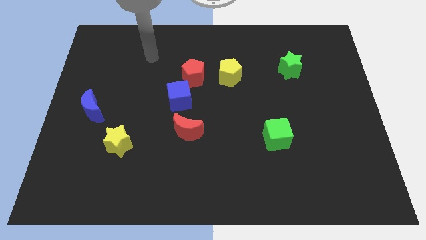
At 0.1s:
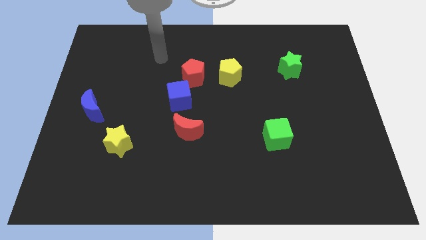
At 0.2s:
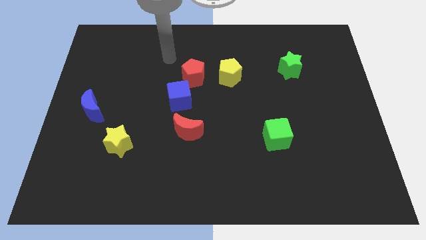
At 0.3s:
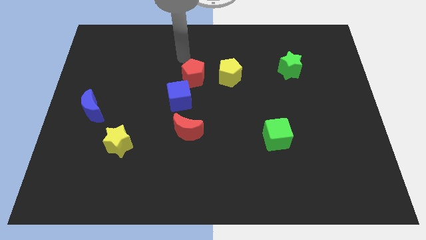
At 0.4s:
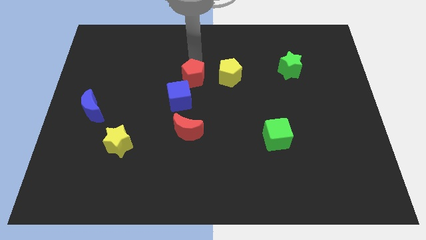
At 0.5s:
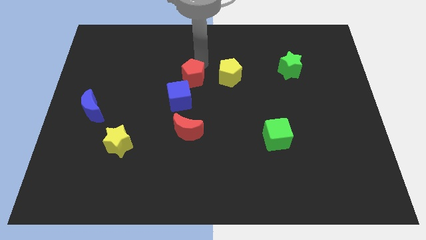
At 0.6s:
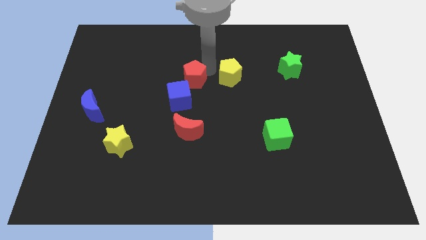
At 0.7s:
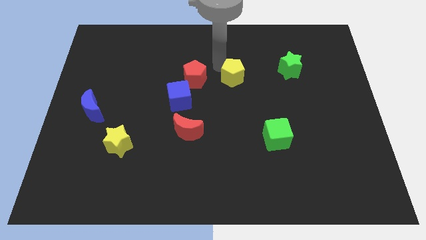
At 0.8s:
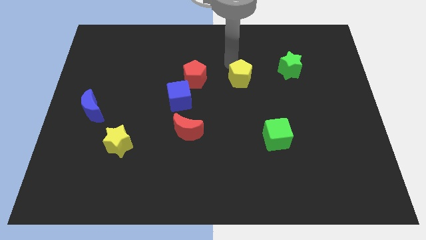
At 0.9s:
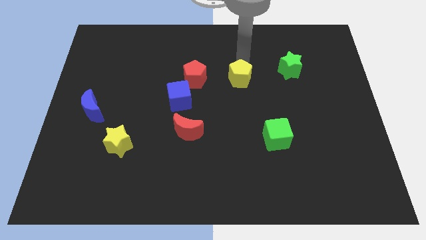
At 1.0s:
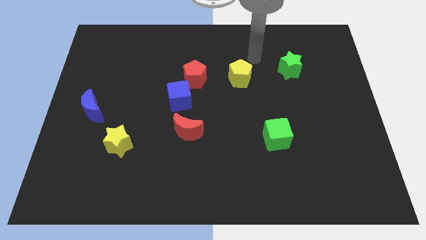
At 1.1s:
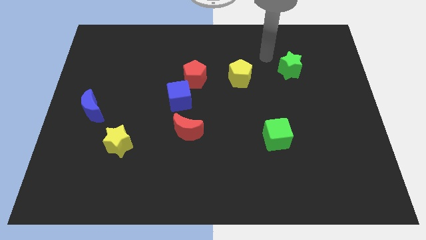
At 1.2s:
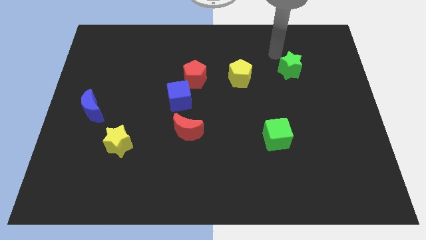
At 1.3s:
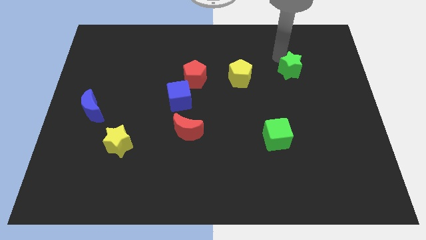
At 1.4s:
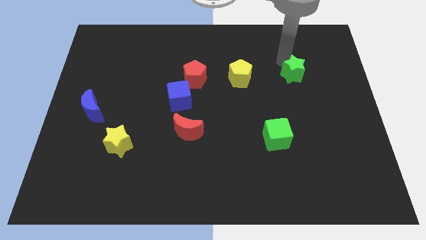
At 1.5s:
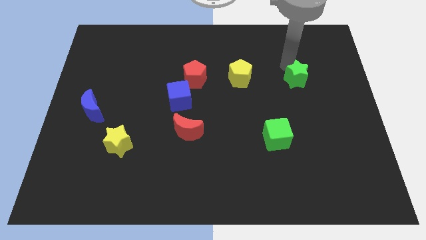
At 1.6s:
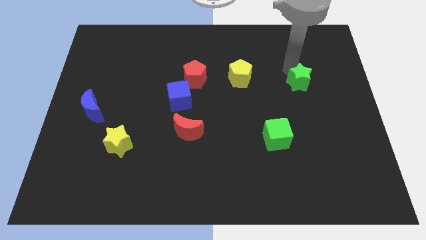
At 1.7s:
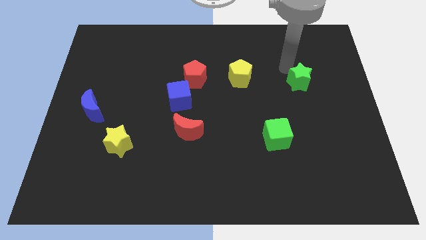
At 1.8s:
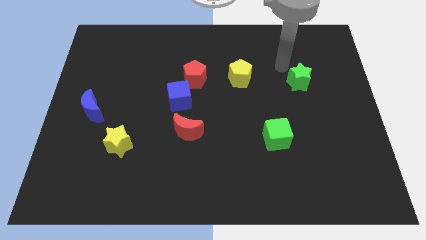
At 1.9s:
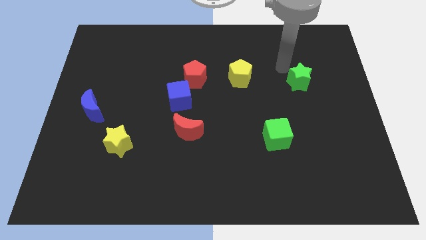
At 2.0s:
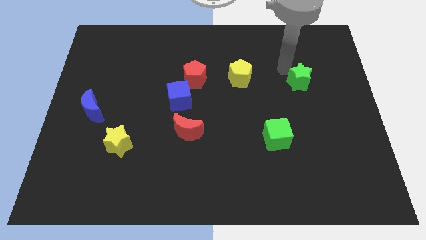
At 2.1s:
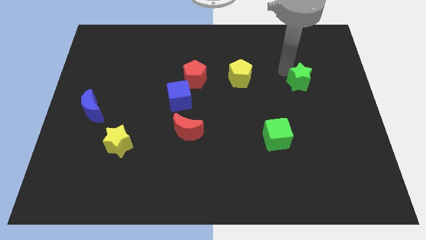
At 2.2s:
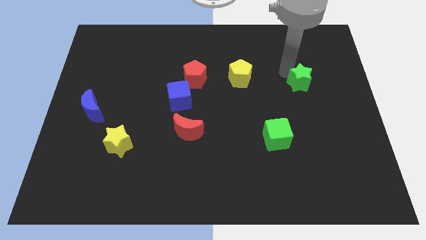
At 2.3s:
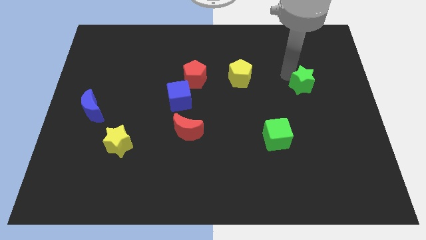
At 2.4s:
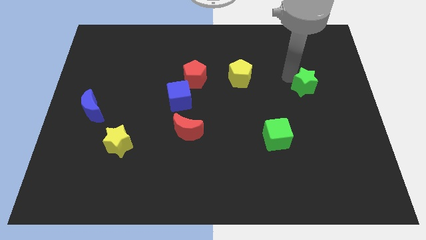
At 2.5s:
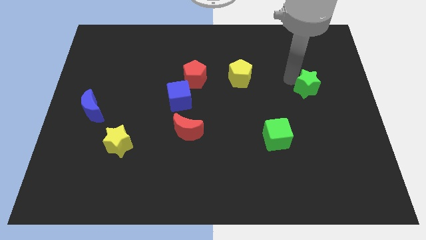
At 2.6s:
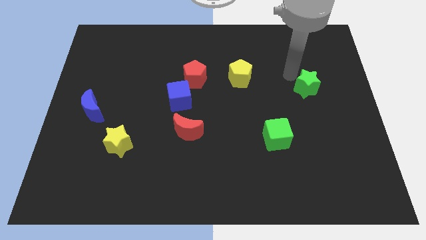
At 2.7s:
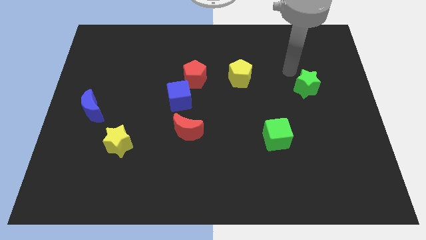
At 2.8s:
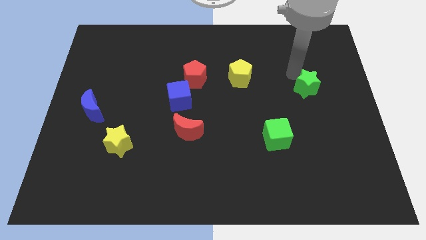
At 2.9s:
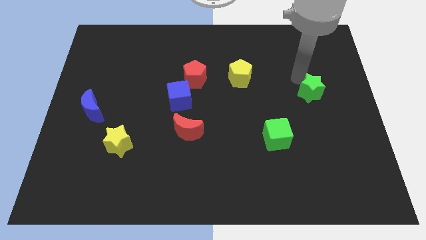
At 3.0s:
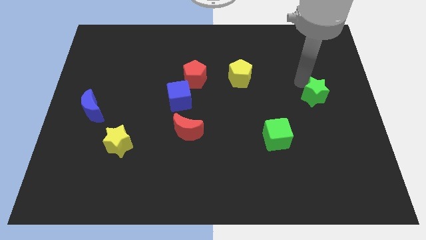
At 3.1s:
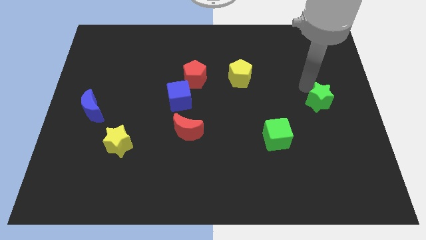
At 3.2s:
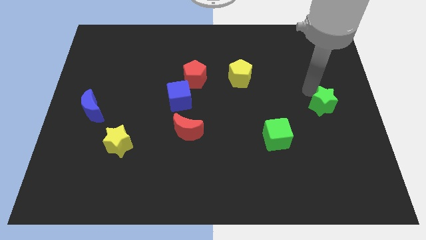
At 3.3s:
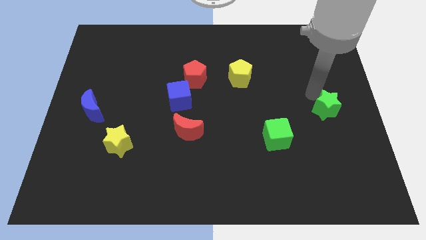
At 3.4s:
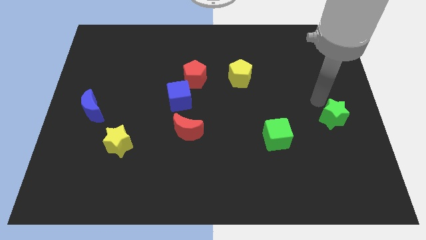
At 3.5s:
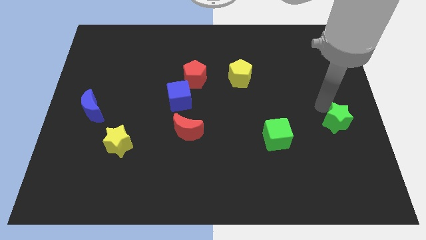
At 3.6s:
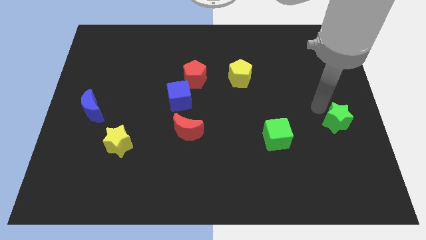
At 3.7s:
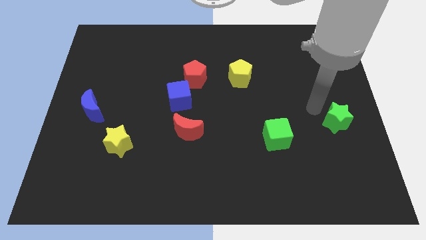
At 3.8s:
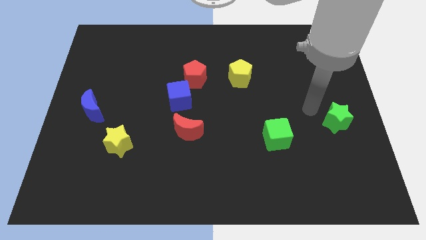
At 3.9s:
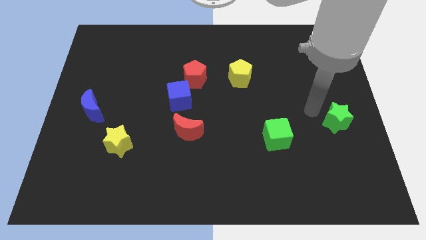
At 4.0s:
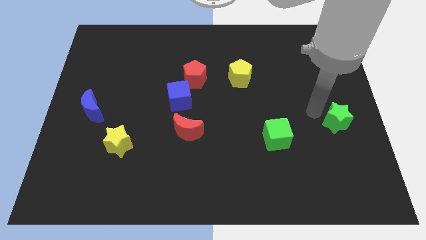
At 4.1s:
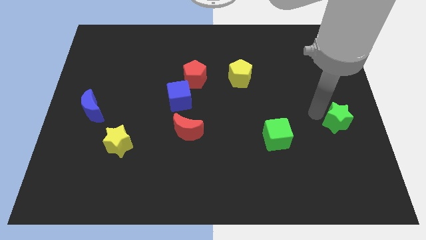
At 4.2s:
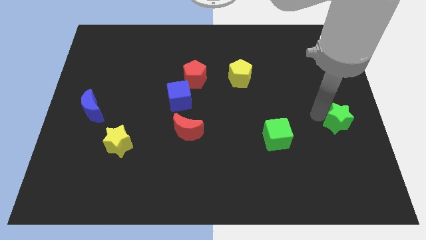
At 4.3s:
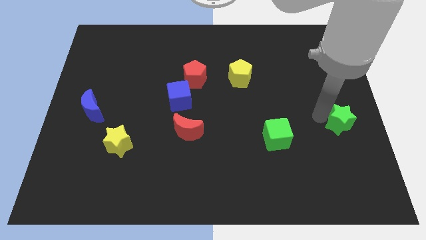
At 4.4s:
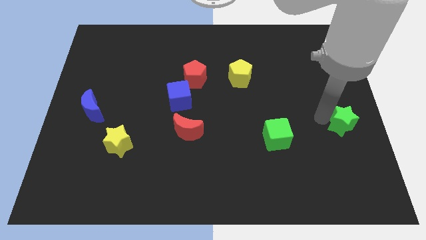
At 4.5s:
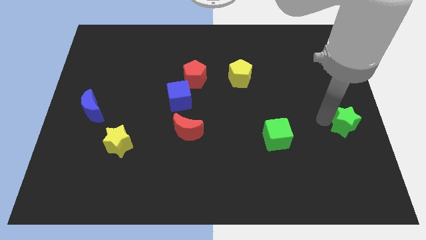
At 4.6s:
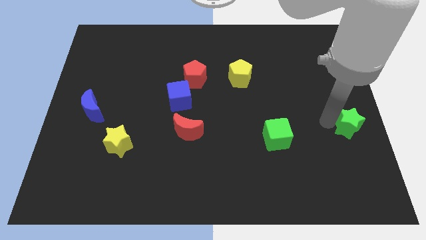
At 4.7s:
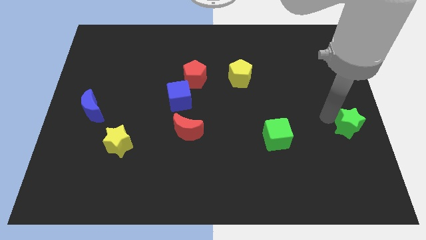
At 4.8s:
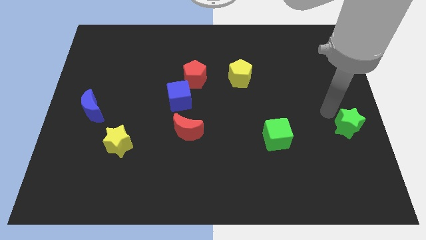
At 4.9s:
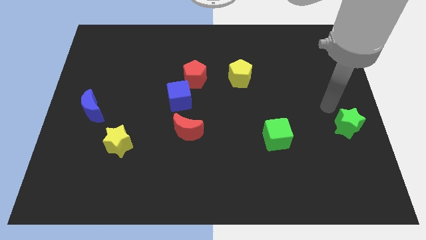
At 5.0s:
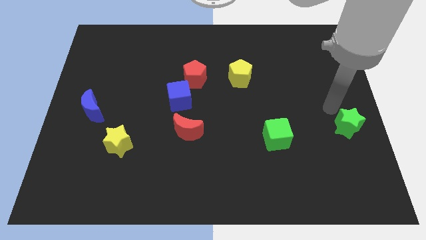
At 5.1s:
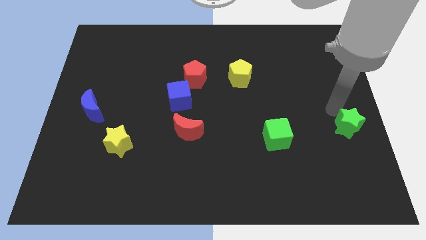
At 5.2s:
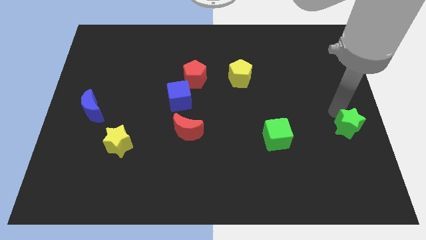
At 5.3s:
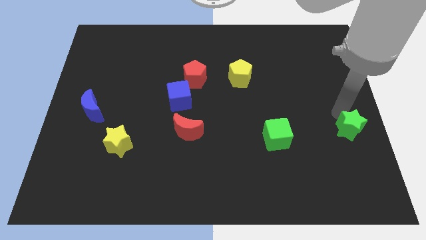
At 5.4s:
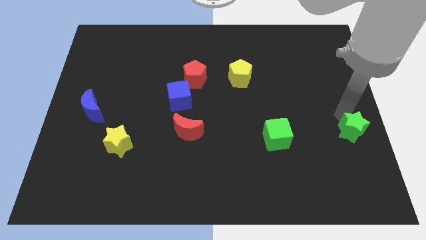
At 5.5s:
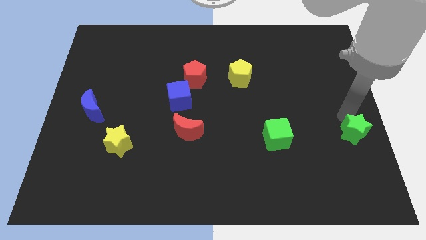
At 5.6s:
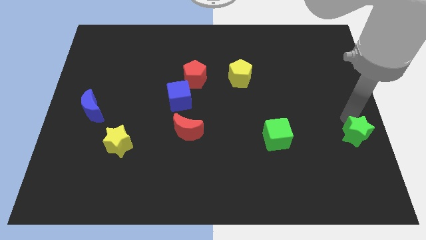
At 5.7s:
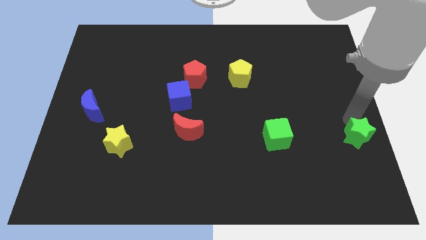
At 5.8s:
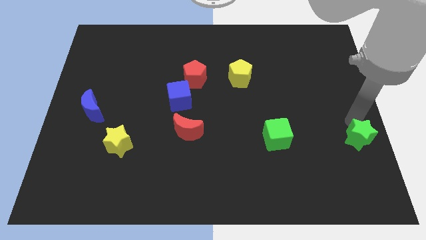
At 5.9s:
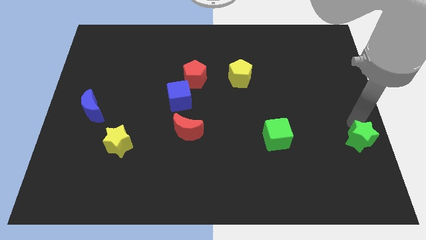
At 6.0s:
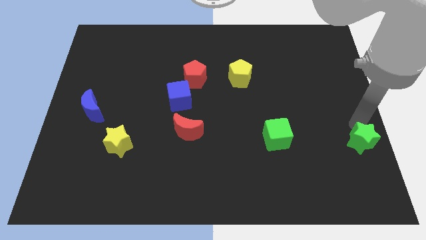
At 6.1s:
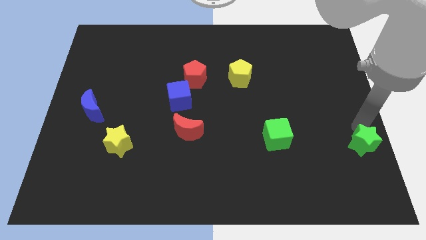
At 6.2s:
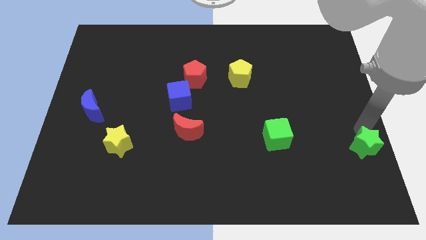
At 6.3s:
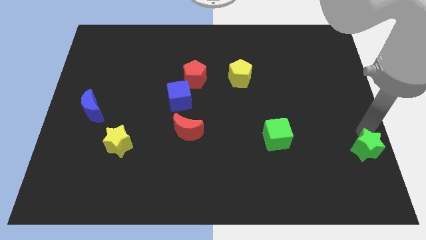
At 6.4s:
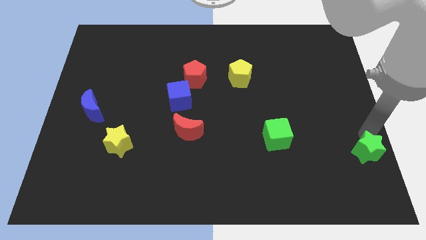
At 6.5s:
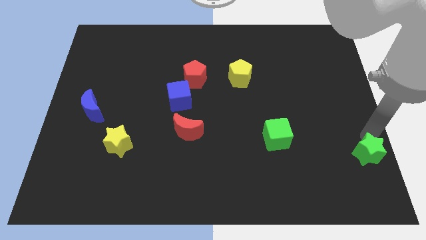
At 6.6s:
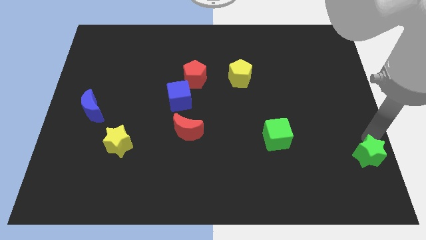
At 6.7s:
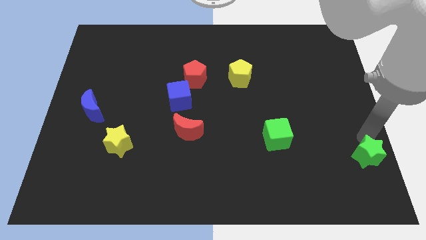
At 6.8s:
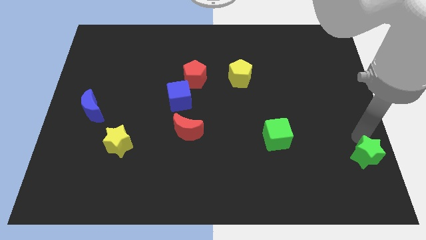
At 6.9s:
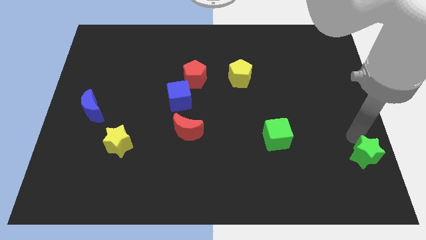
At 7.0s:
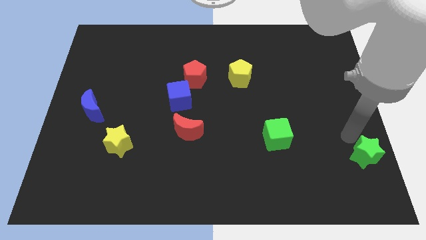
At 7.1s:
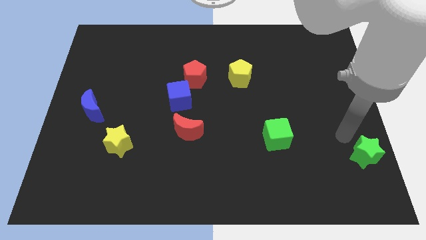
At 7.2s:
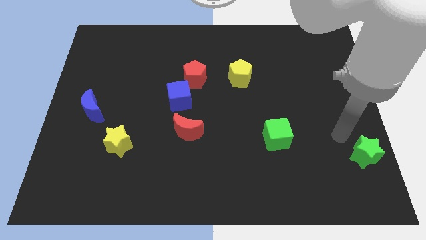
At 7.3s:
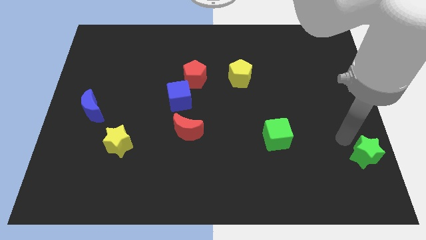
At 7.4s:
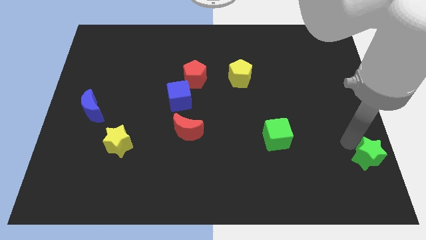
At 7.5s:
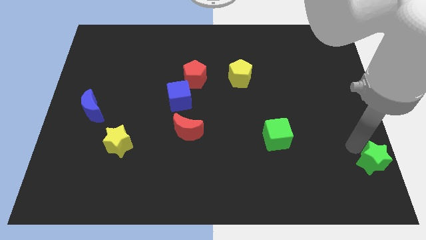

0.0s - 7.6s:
push the green star to the lower right corner
